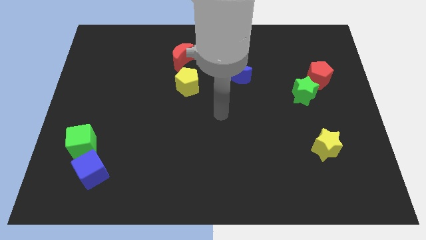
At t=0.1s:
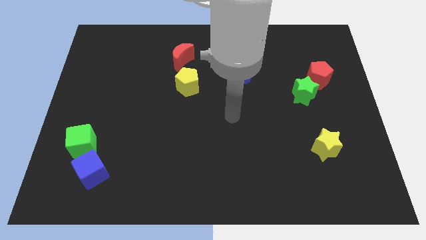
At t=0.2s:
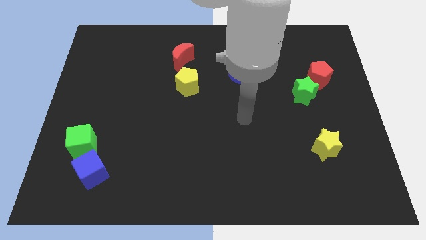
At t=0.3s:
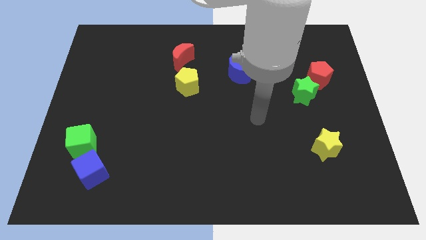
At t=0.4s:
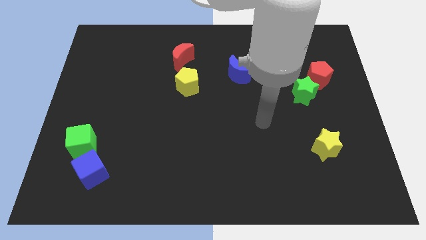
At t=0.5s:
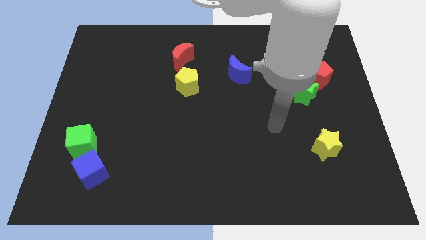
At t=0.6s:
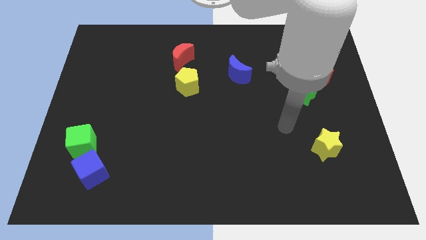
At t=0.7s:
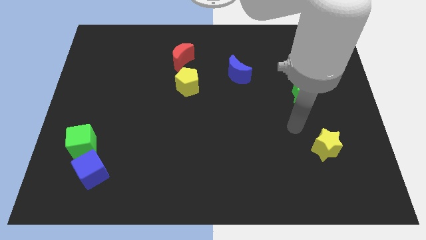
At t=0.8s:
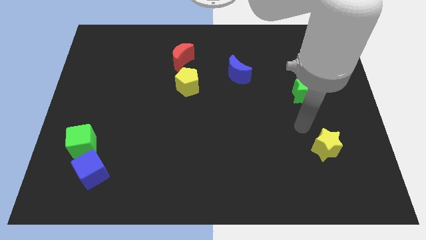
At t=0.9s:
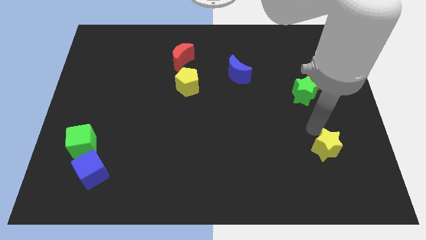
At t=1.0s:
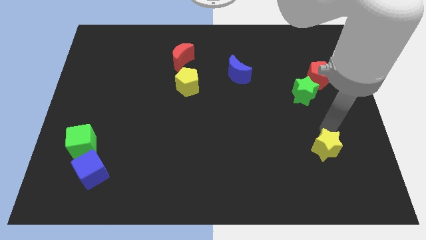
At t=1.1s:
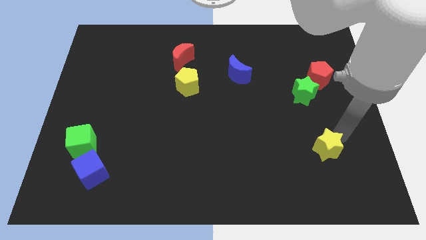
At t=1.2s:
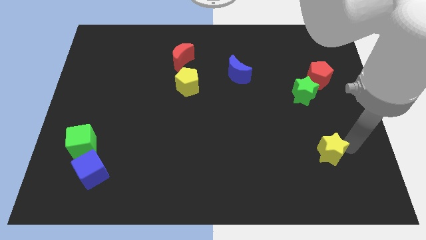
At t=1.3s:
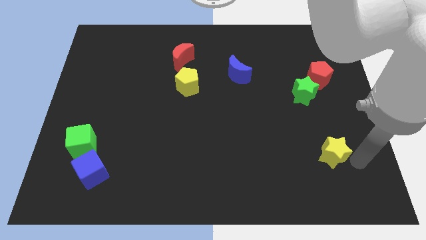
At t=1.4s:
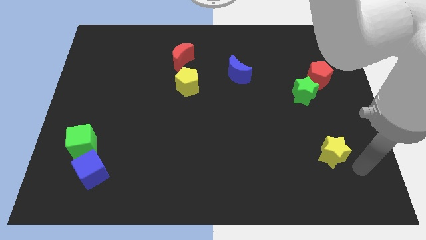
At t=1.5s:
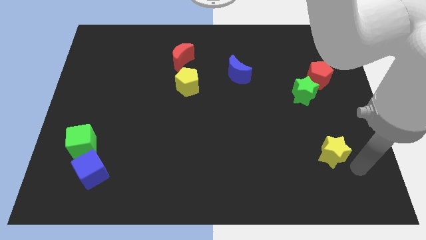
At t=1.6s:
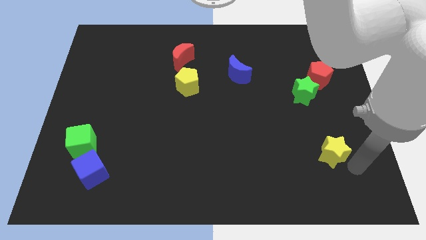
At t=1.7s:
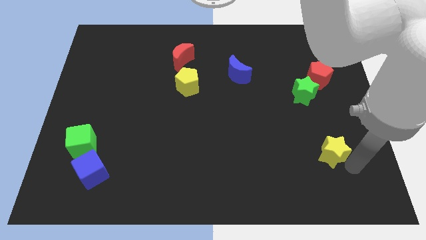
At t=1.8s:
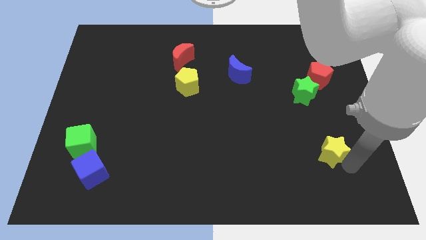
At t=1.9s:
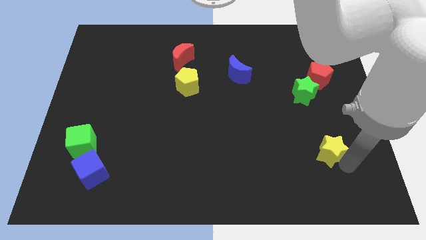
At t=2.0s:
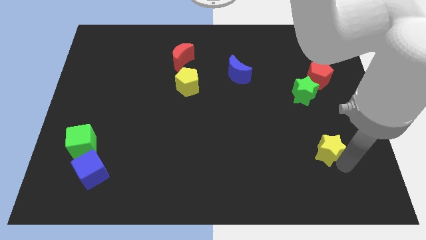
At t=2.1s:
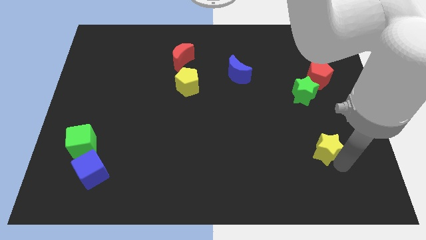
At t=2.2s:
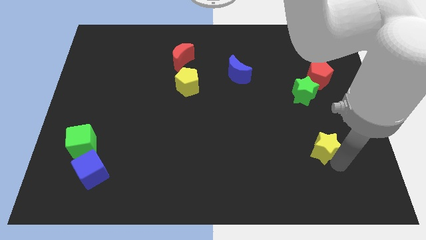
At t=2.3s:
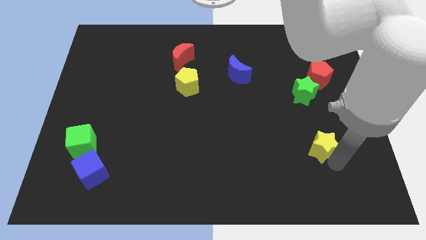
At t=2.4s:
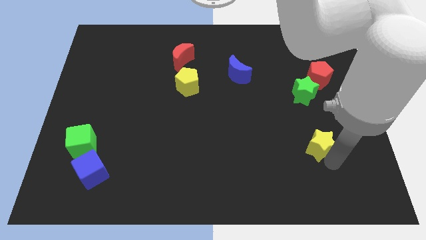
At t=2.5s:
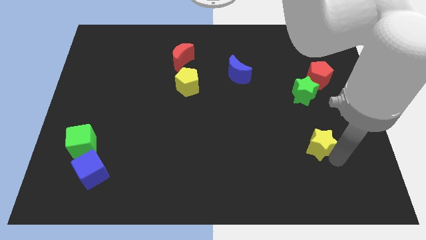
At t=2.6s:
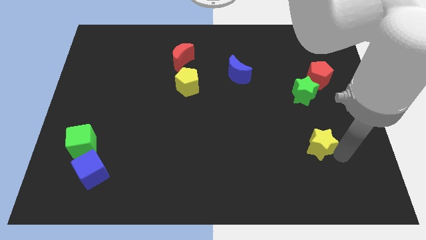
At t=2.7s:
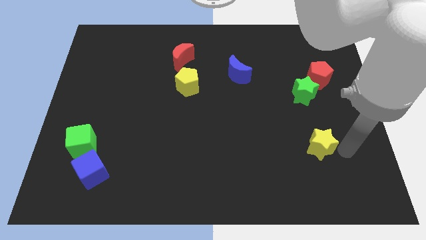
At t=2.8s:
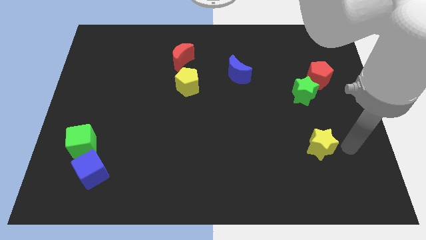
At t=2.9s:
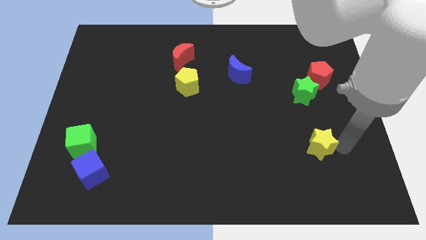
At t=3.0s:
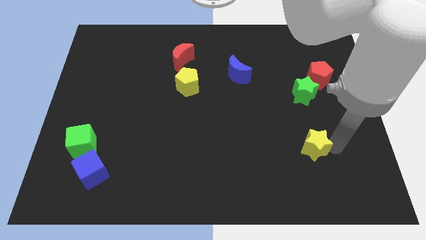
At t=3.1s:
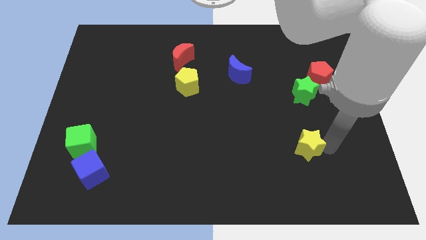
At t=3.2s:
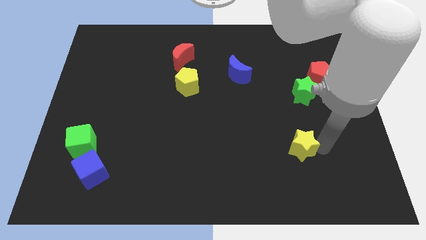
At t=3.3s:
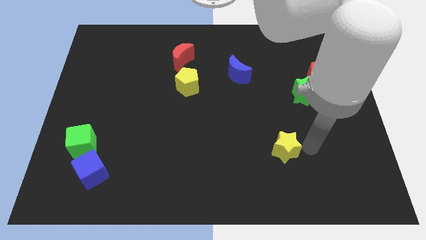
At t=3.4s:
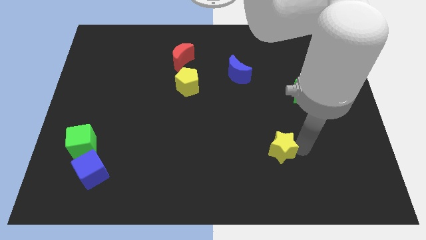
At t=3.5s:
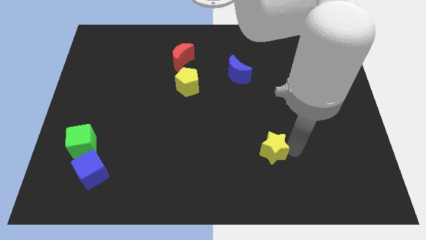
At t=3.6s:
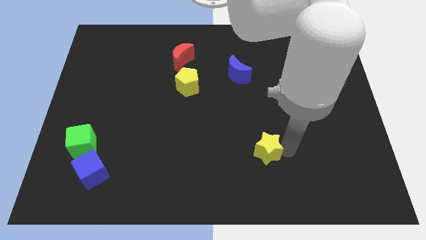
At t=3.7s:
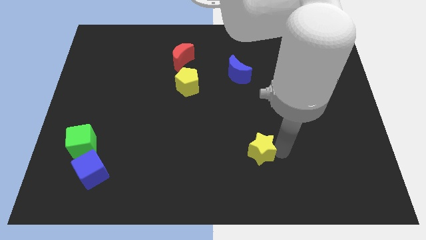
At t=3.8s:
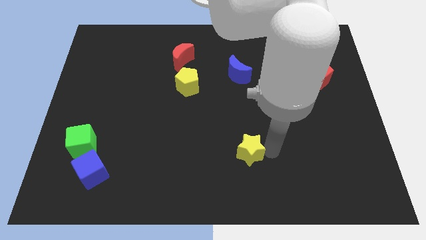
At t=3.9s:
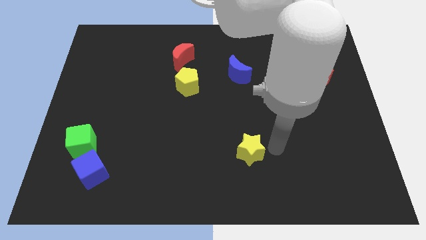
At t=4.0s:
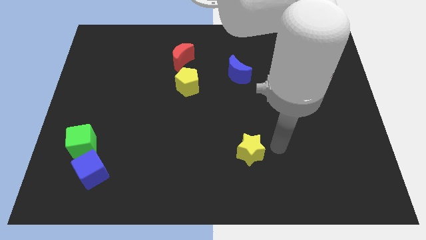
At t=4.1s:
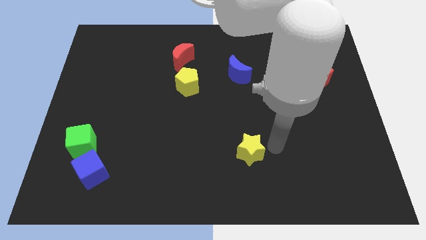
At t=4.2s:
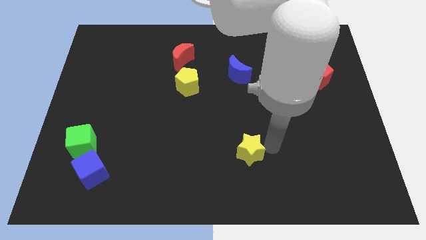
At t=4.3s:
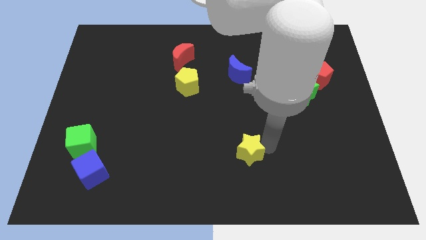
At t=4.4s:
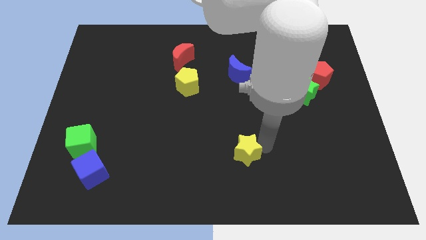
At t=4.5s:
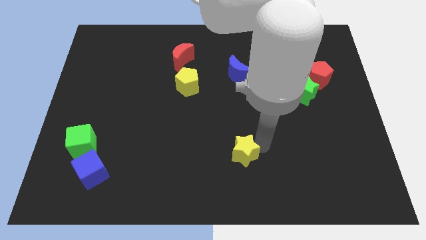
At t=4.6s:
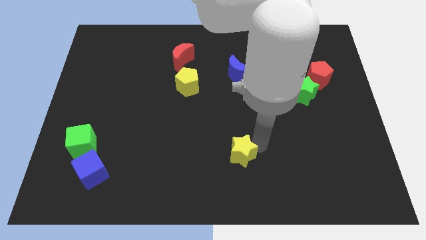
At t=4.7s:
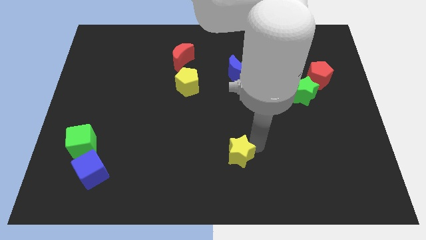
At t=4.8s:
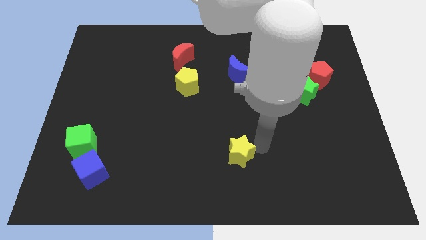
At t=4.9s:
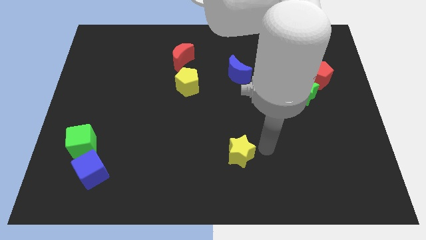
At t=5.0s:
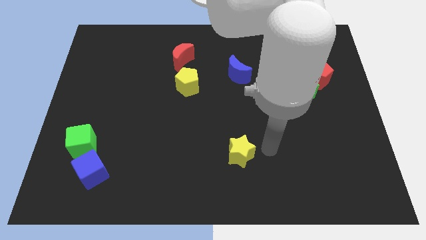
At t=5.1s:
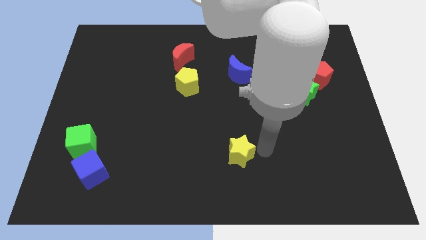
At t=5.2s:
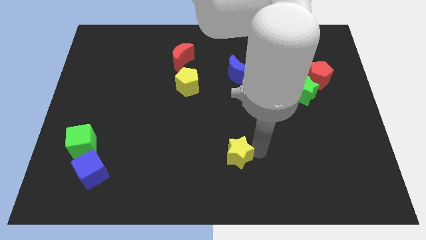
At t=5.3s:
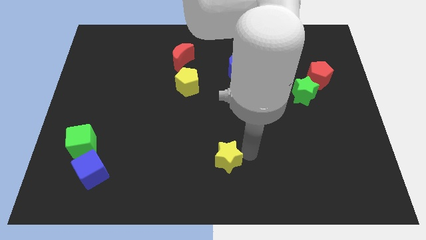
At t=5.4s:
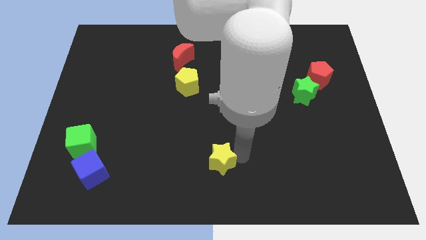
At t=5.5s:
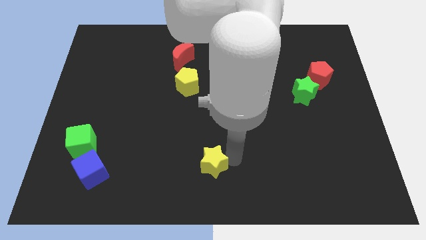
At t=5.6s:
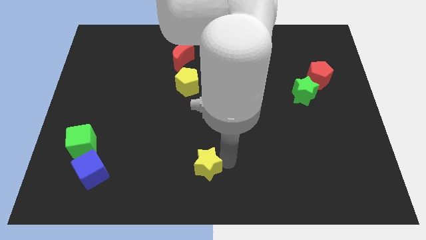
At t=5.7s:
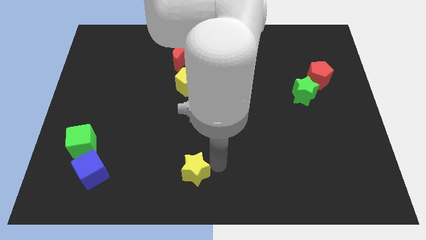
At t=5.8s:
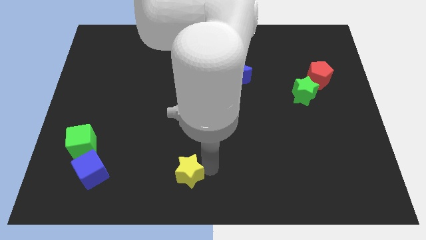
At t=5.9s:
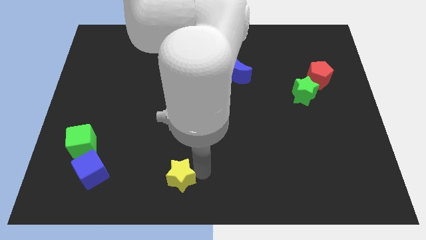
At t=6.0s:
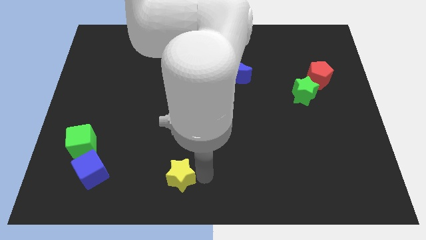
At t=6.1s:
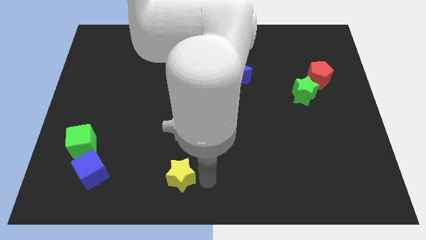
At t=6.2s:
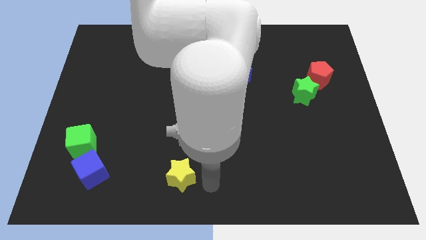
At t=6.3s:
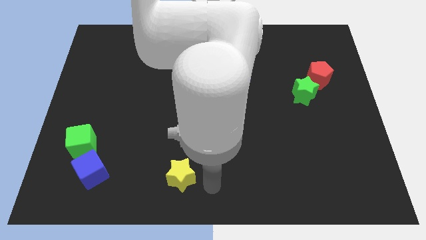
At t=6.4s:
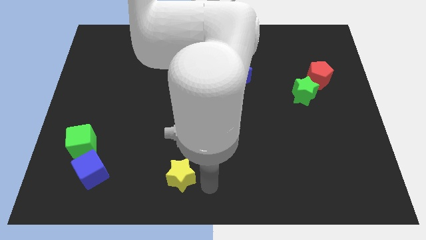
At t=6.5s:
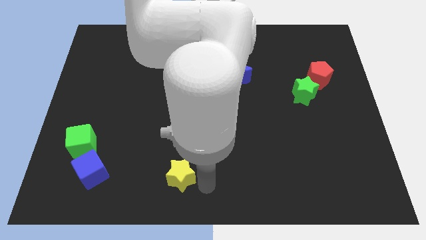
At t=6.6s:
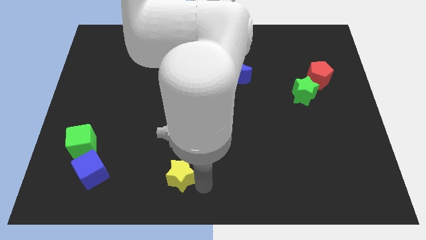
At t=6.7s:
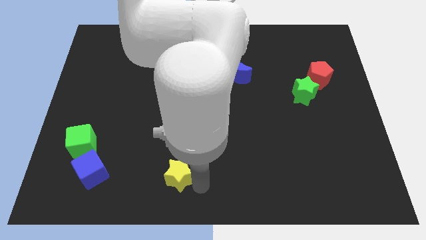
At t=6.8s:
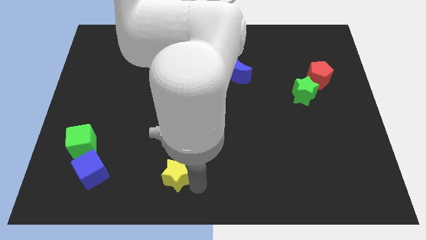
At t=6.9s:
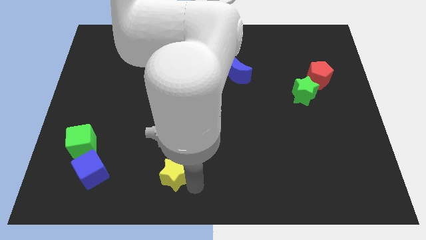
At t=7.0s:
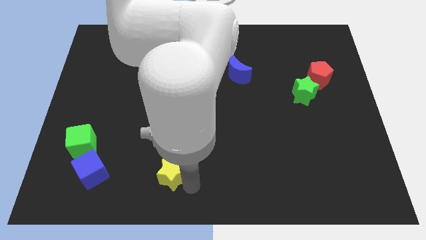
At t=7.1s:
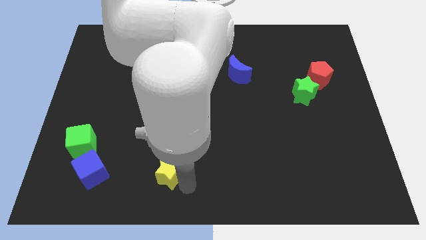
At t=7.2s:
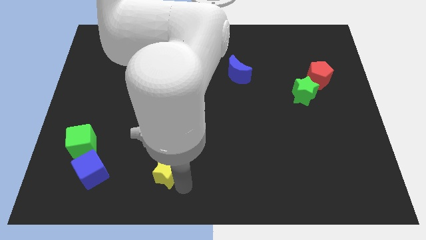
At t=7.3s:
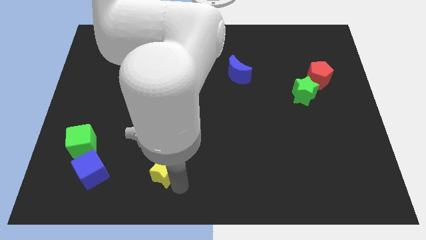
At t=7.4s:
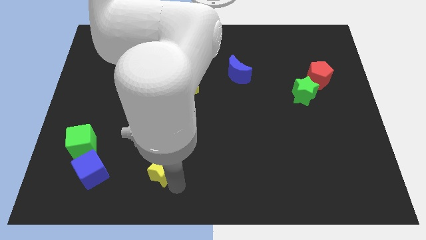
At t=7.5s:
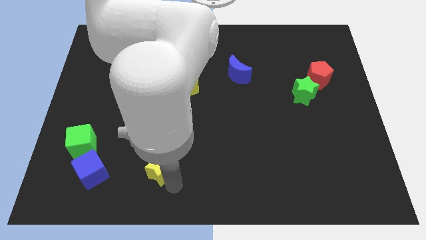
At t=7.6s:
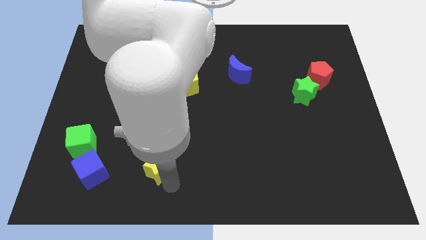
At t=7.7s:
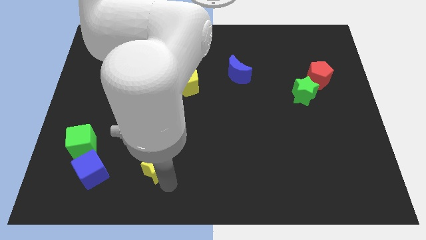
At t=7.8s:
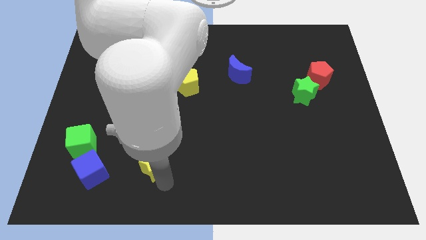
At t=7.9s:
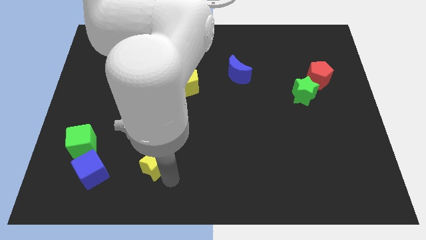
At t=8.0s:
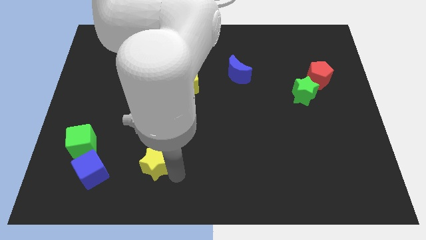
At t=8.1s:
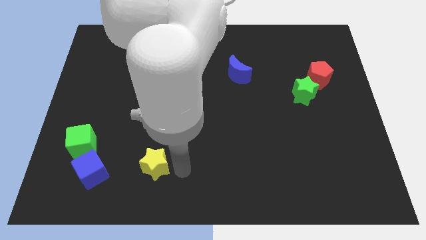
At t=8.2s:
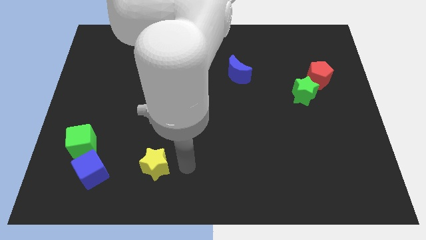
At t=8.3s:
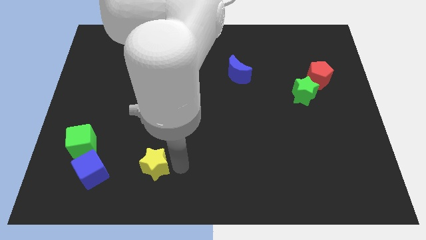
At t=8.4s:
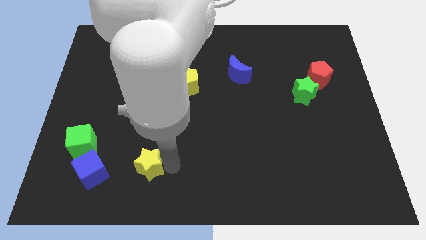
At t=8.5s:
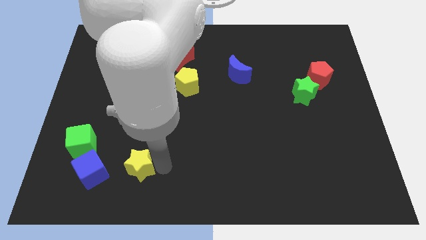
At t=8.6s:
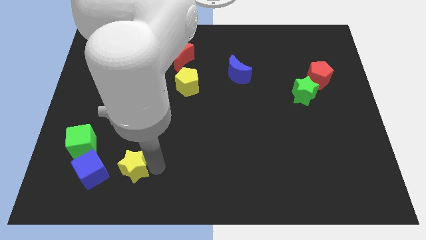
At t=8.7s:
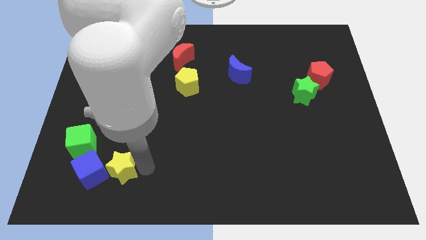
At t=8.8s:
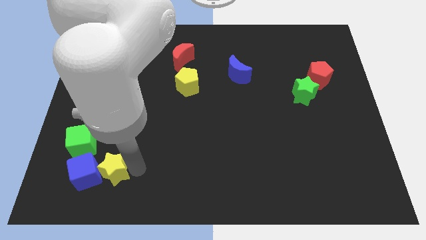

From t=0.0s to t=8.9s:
slide the yellow star close to the blue cube
